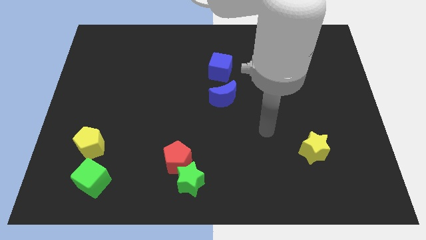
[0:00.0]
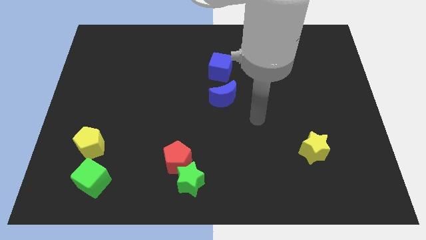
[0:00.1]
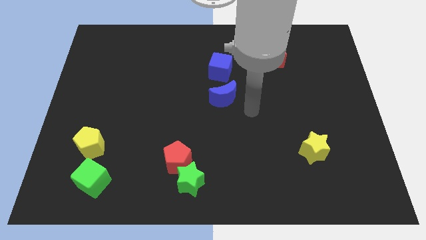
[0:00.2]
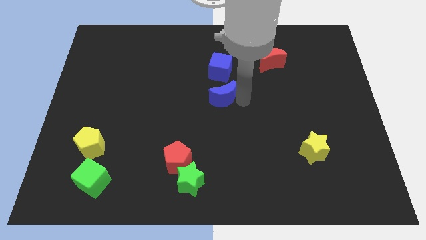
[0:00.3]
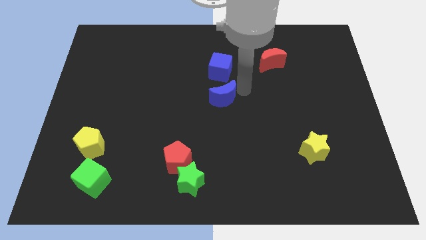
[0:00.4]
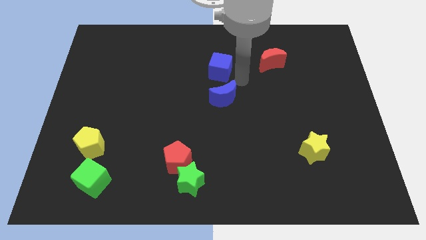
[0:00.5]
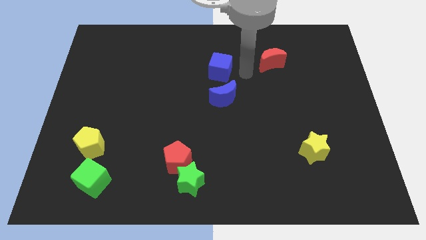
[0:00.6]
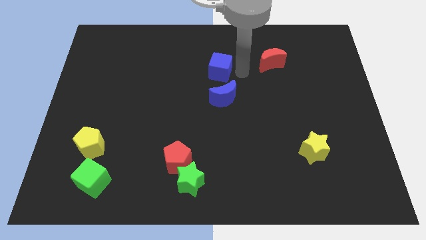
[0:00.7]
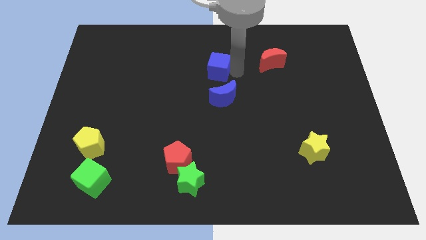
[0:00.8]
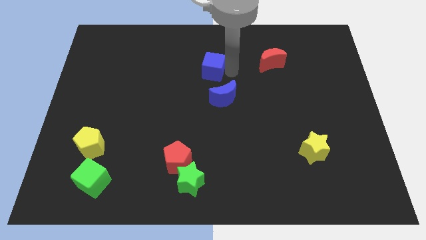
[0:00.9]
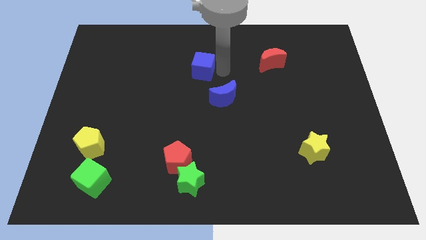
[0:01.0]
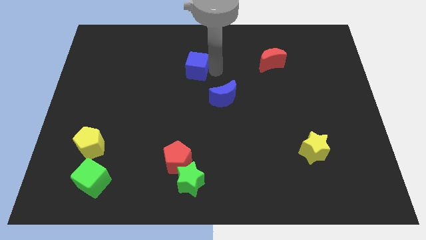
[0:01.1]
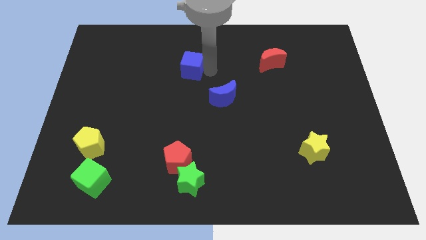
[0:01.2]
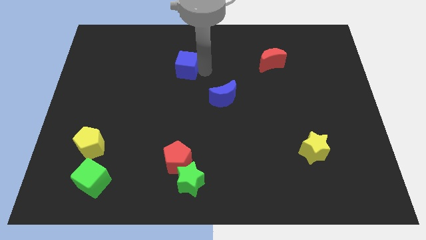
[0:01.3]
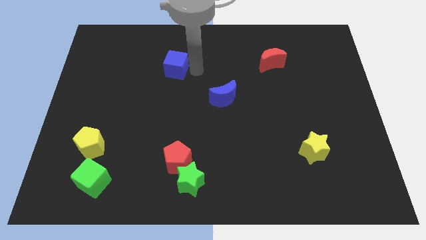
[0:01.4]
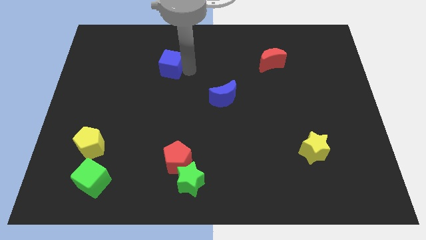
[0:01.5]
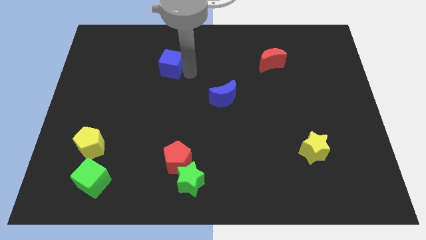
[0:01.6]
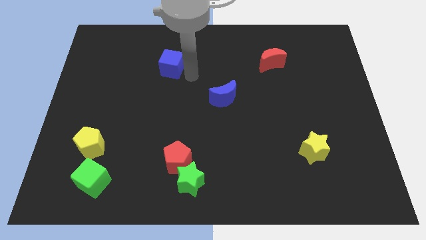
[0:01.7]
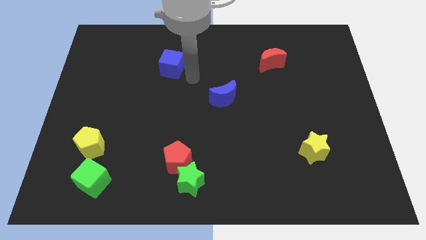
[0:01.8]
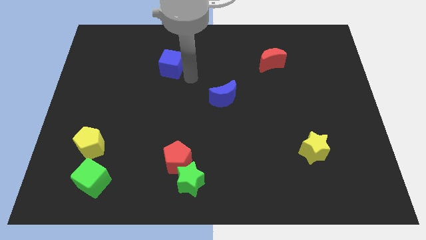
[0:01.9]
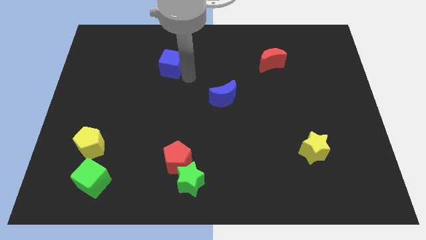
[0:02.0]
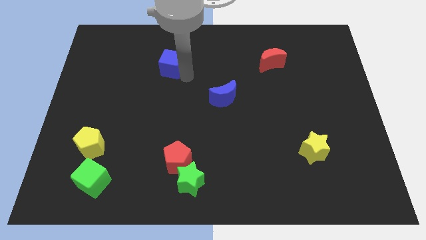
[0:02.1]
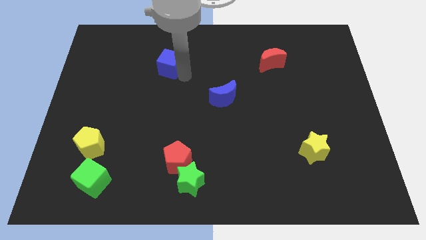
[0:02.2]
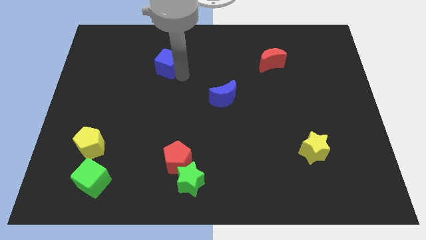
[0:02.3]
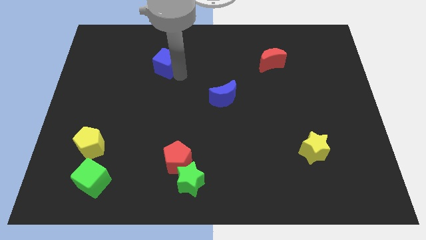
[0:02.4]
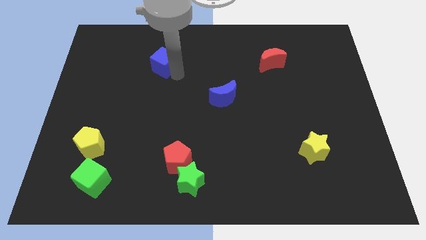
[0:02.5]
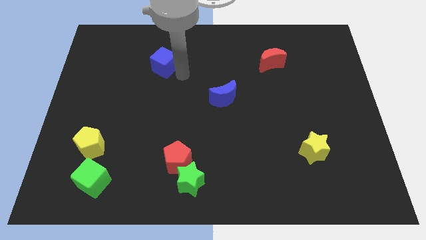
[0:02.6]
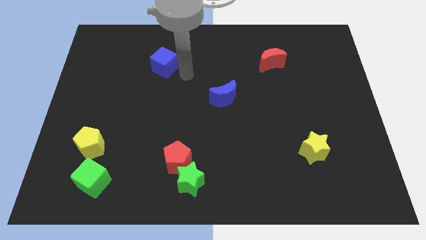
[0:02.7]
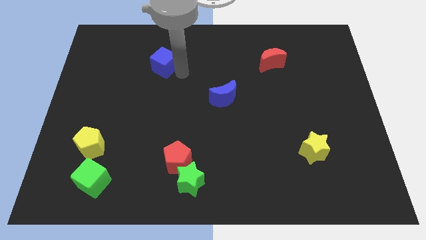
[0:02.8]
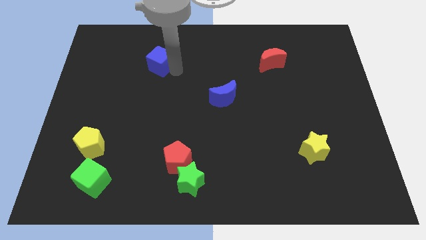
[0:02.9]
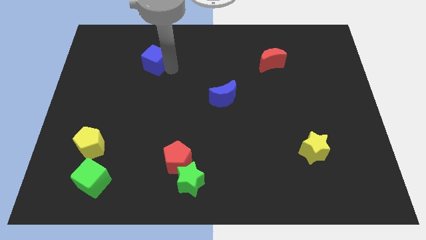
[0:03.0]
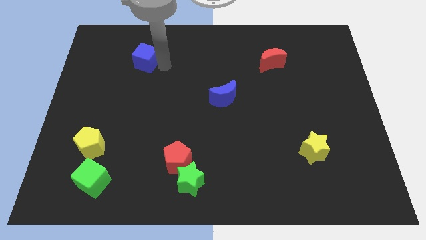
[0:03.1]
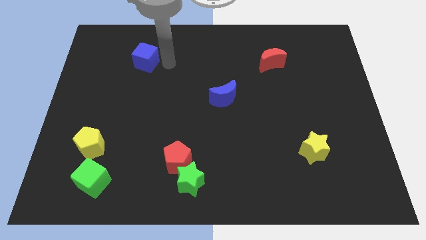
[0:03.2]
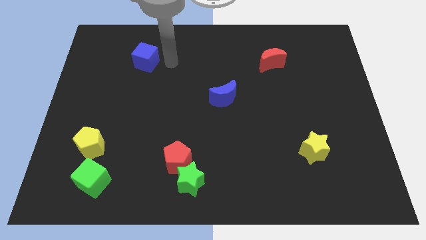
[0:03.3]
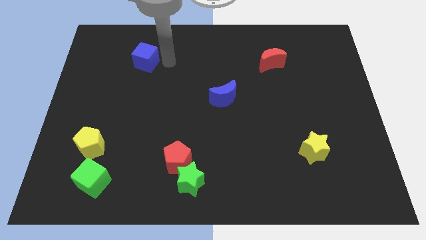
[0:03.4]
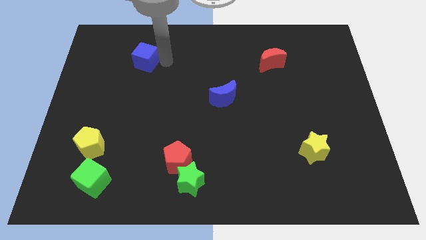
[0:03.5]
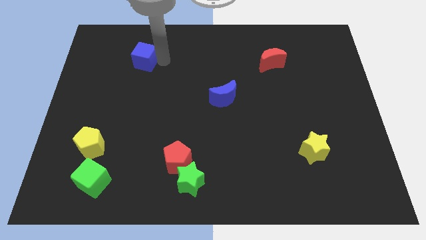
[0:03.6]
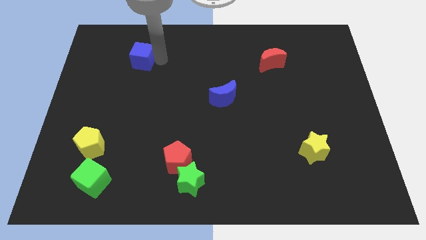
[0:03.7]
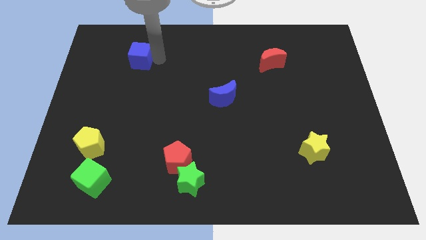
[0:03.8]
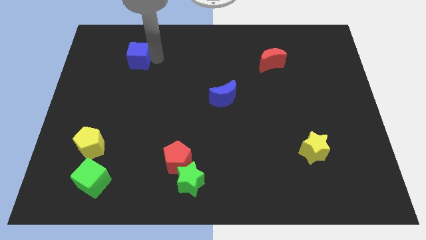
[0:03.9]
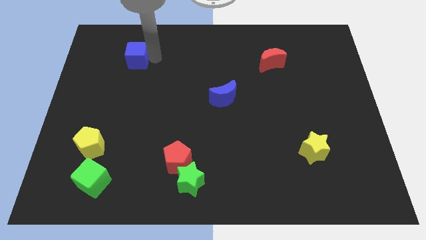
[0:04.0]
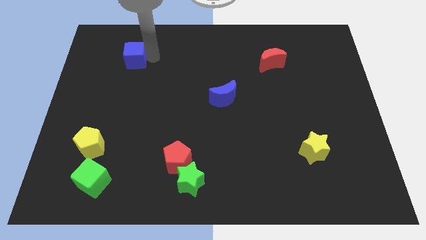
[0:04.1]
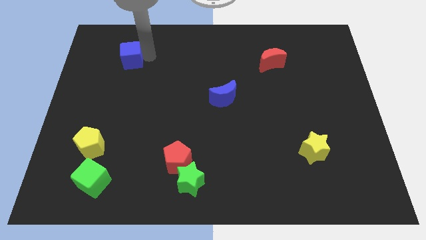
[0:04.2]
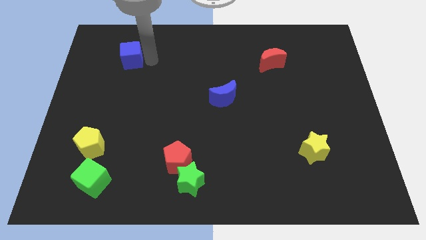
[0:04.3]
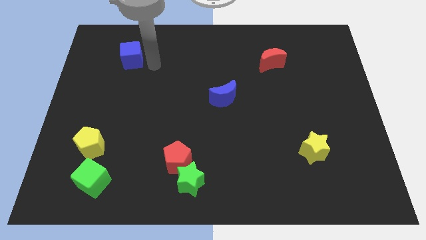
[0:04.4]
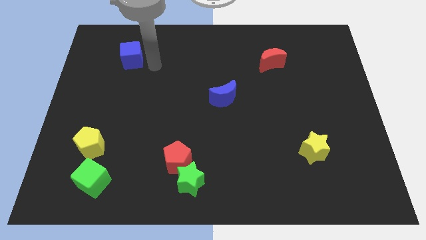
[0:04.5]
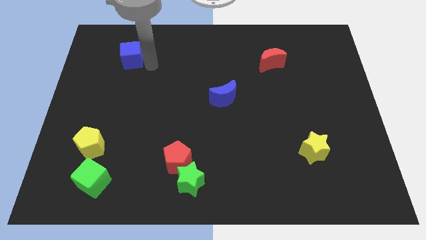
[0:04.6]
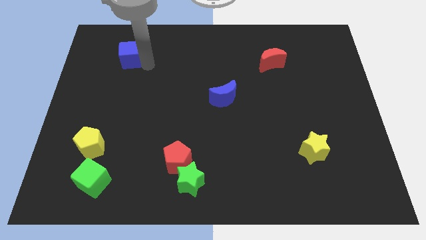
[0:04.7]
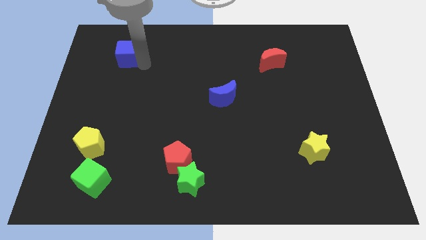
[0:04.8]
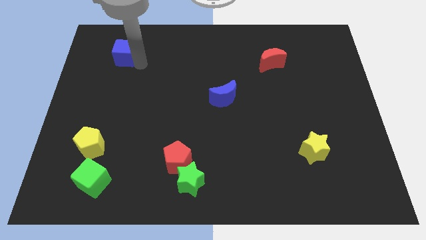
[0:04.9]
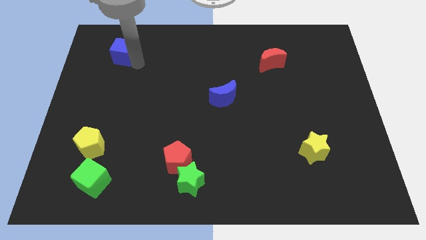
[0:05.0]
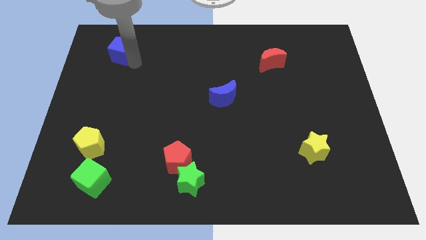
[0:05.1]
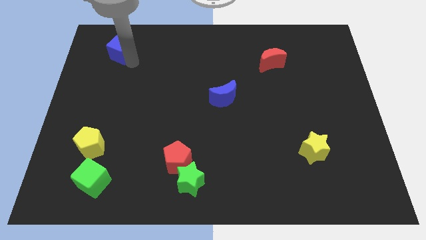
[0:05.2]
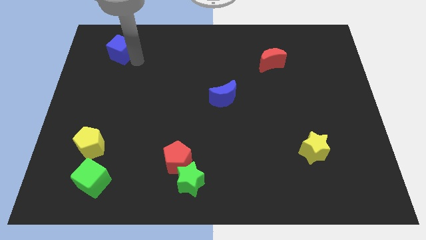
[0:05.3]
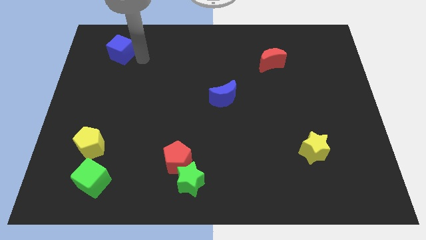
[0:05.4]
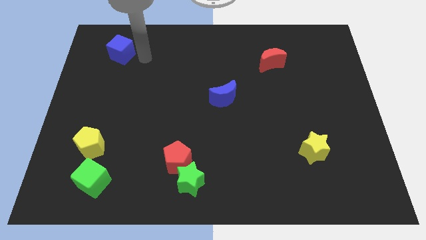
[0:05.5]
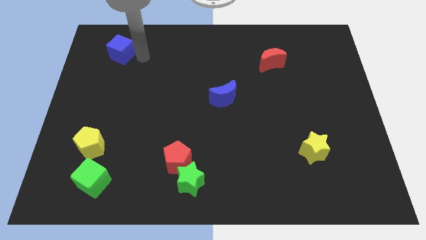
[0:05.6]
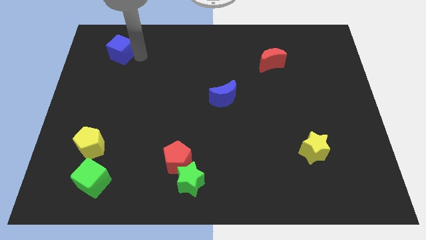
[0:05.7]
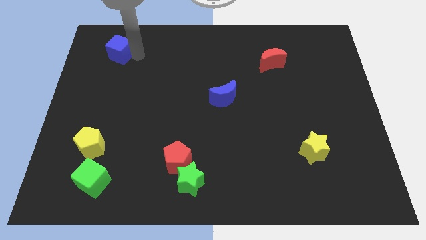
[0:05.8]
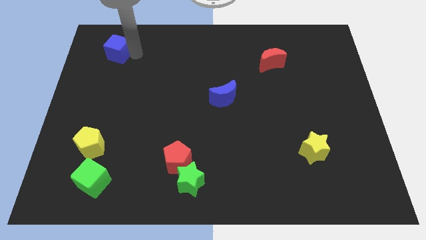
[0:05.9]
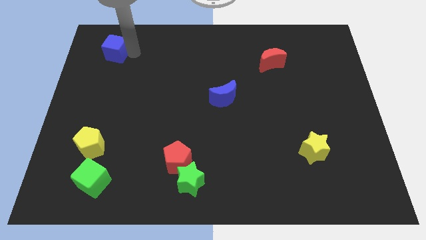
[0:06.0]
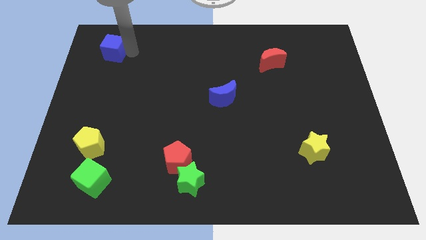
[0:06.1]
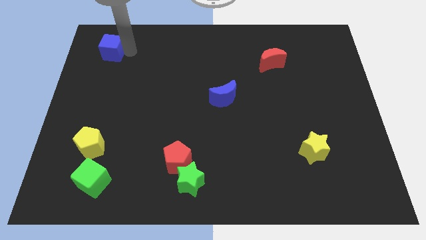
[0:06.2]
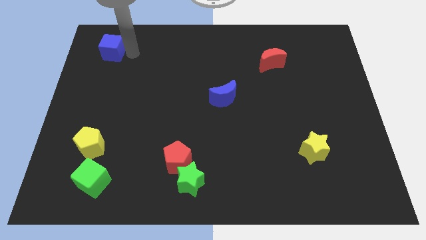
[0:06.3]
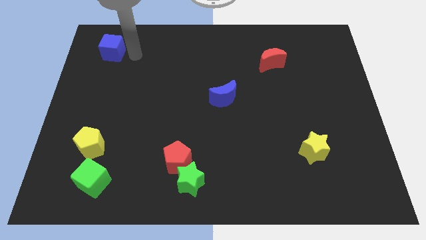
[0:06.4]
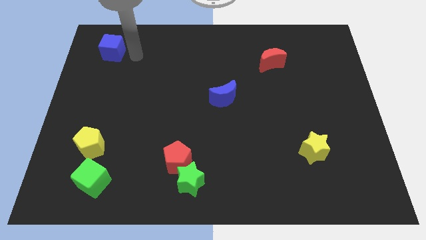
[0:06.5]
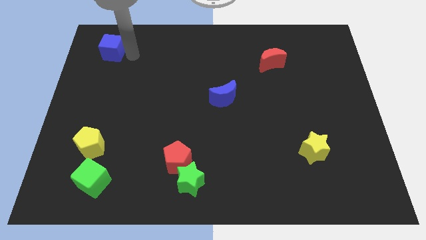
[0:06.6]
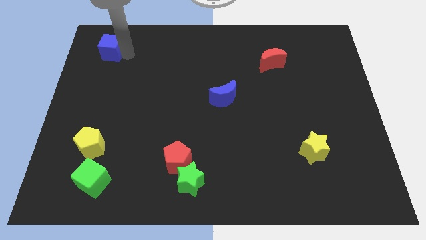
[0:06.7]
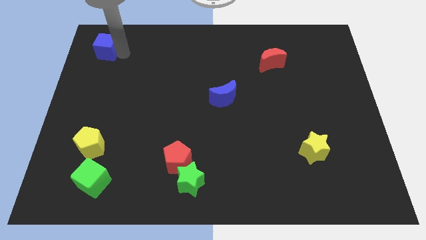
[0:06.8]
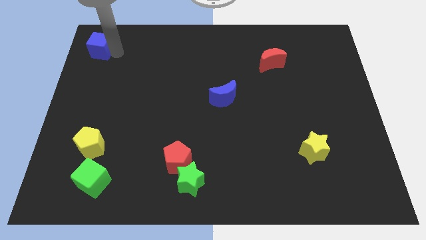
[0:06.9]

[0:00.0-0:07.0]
move the blue cube to the top left of the board
